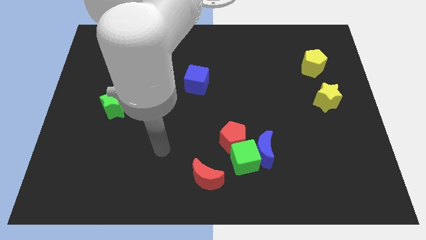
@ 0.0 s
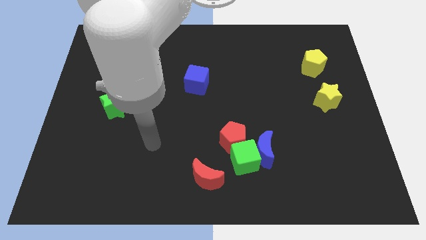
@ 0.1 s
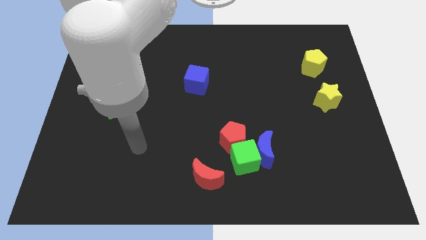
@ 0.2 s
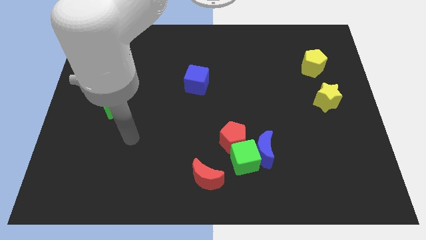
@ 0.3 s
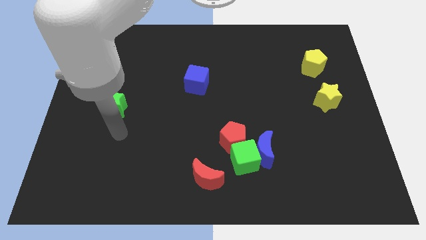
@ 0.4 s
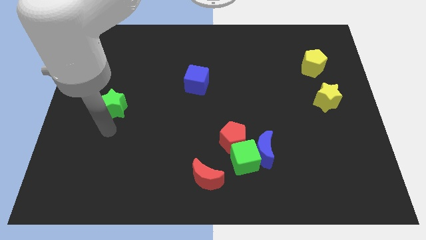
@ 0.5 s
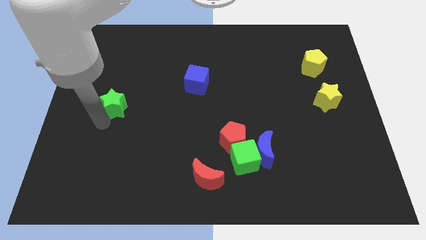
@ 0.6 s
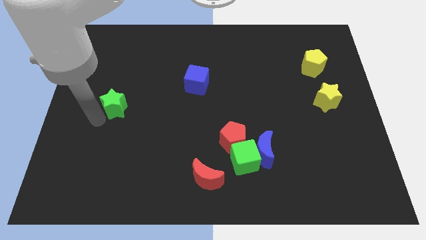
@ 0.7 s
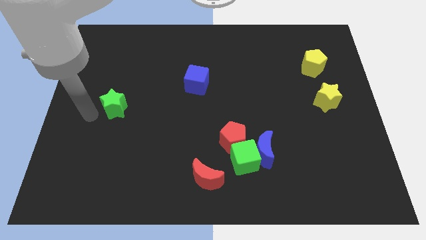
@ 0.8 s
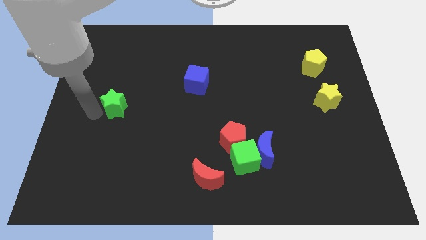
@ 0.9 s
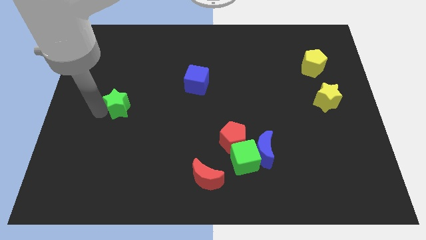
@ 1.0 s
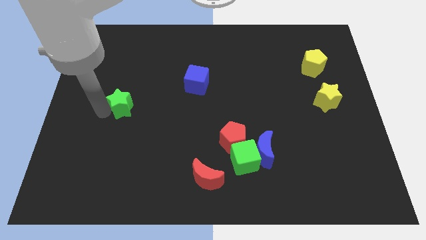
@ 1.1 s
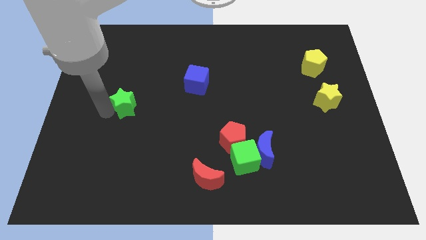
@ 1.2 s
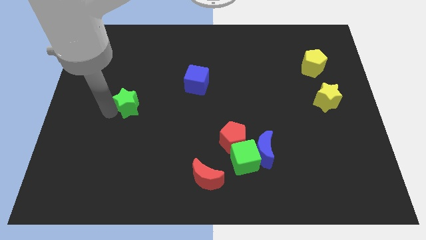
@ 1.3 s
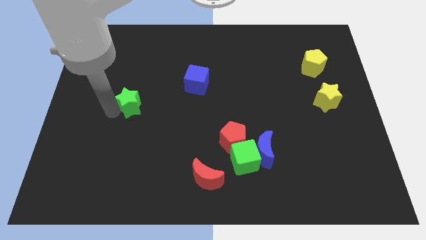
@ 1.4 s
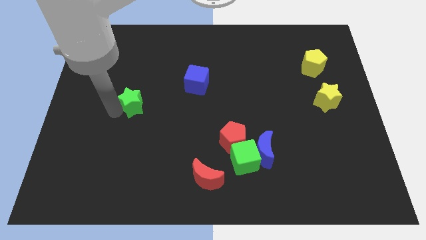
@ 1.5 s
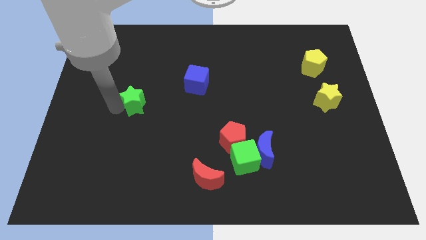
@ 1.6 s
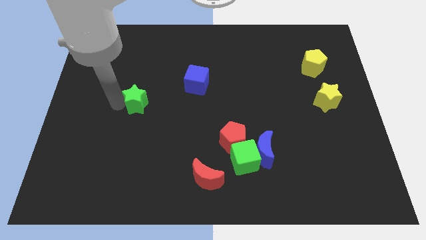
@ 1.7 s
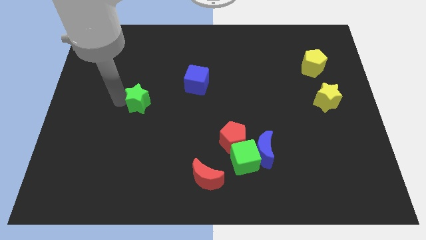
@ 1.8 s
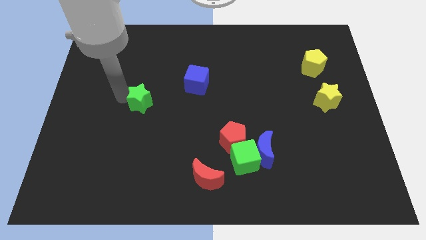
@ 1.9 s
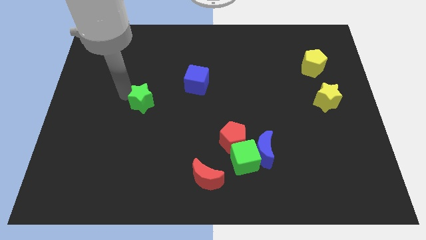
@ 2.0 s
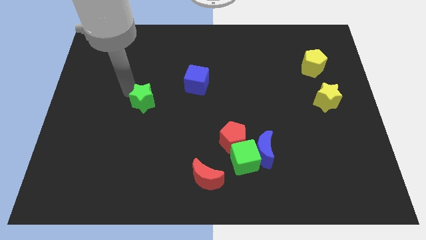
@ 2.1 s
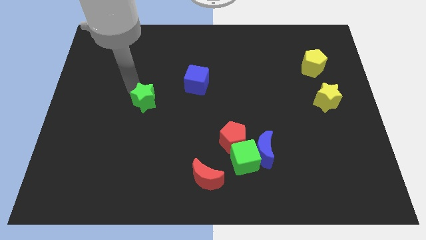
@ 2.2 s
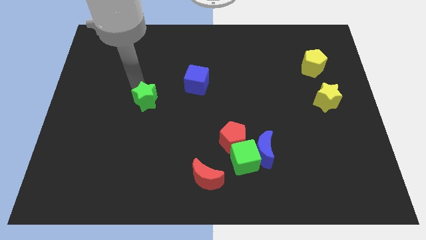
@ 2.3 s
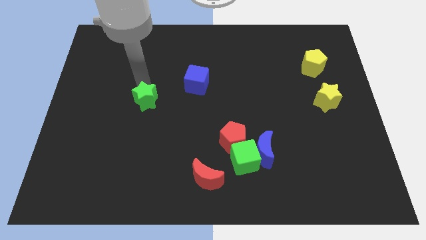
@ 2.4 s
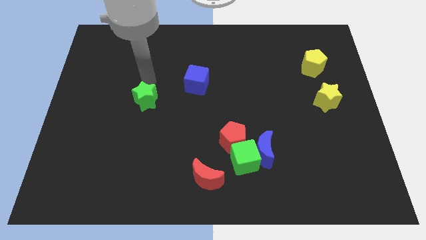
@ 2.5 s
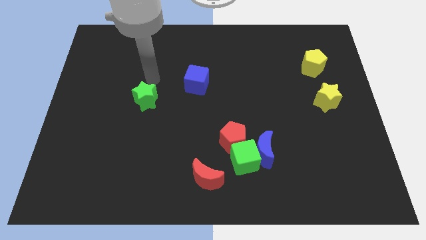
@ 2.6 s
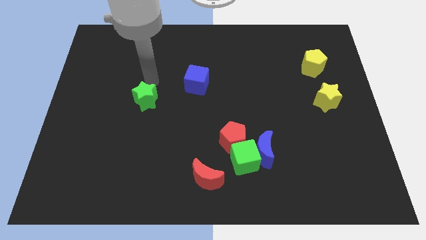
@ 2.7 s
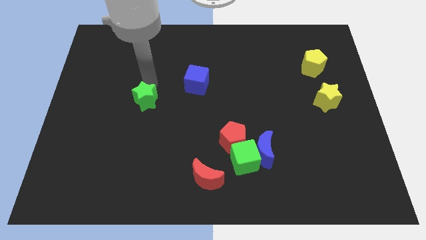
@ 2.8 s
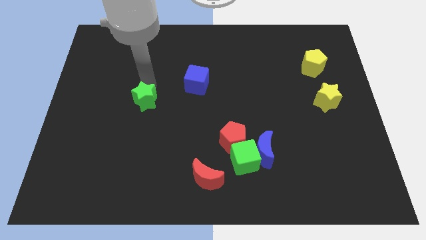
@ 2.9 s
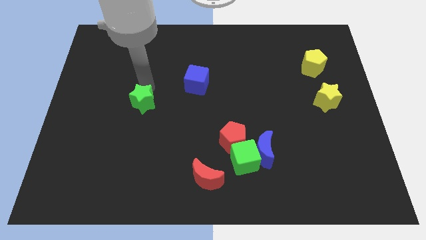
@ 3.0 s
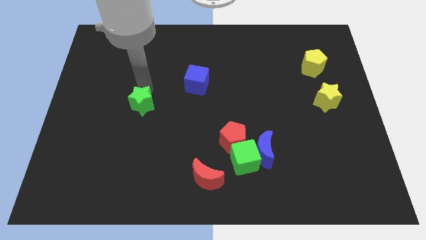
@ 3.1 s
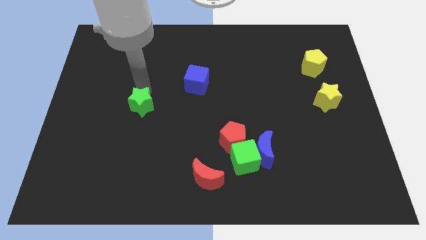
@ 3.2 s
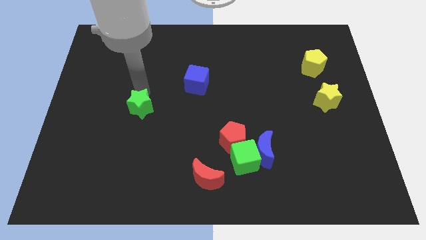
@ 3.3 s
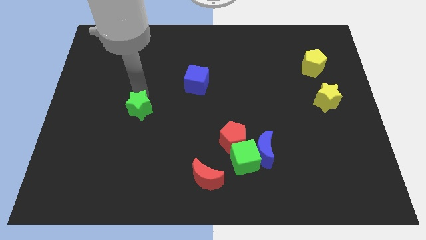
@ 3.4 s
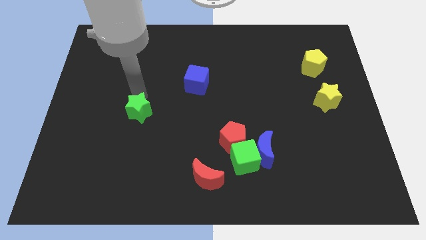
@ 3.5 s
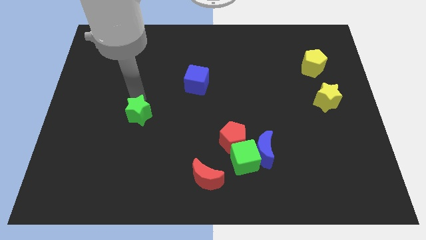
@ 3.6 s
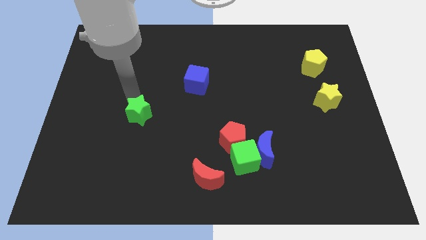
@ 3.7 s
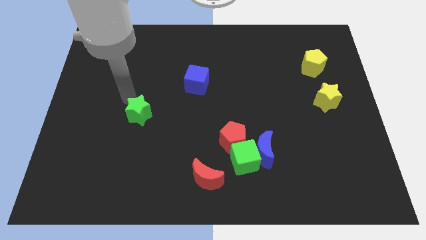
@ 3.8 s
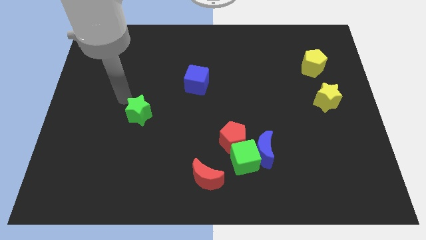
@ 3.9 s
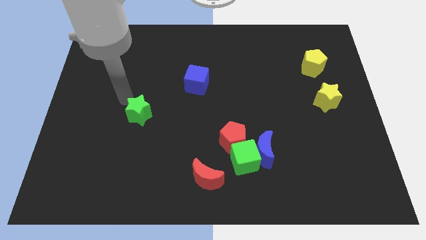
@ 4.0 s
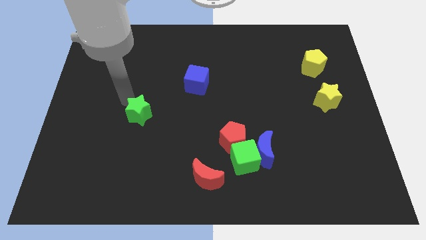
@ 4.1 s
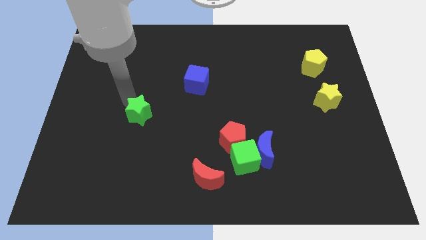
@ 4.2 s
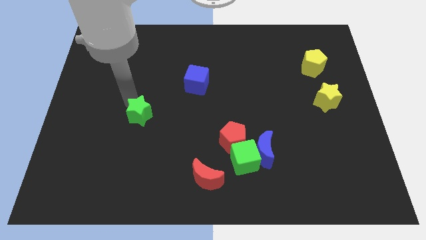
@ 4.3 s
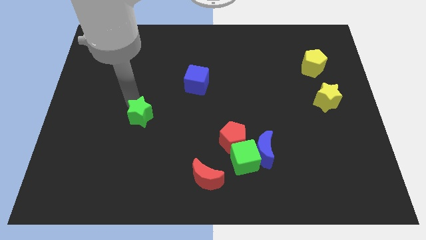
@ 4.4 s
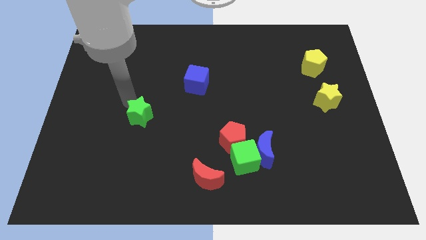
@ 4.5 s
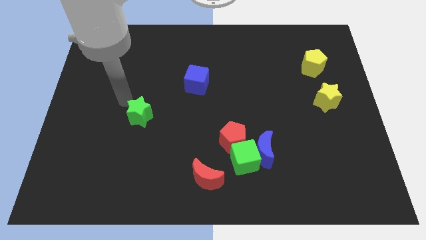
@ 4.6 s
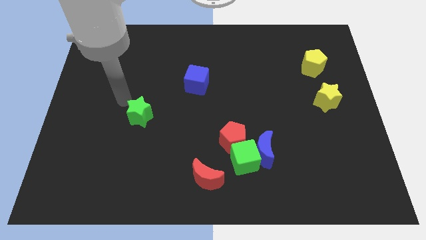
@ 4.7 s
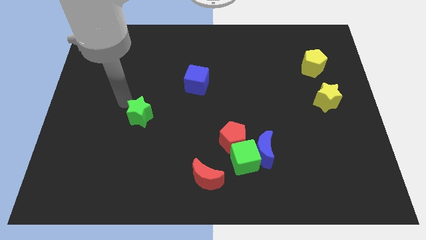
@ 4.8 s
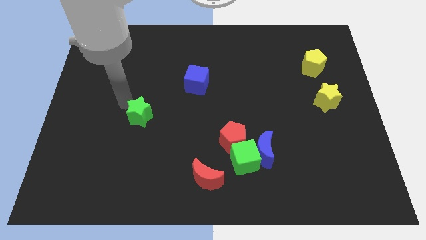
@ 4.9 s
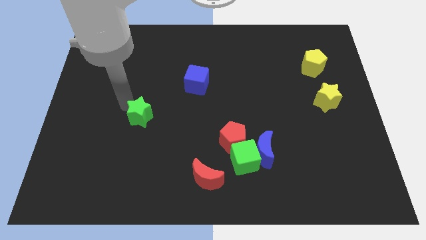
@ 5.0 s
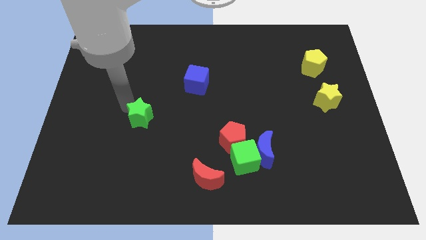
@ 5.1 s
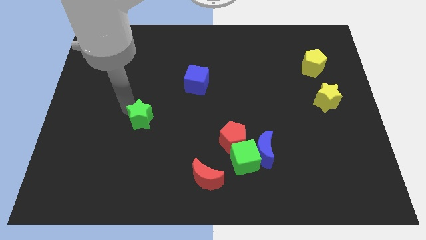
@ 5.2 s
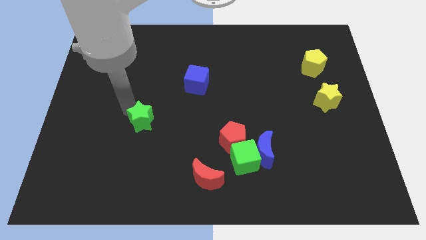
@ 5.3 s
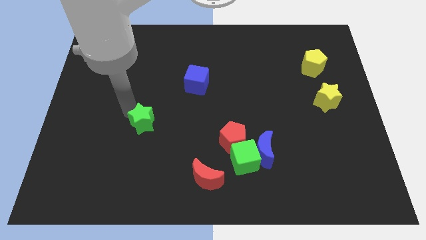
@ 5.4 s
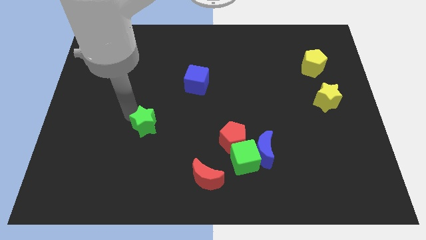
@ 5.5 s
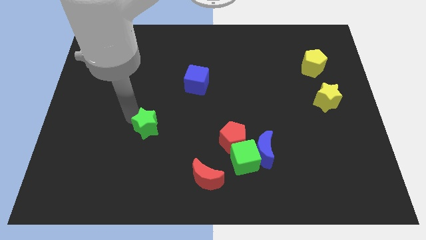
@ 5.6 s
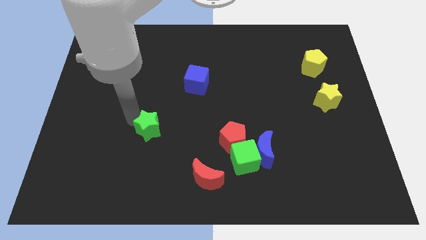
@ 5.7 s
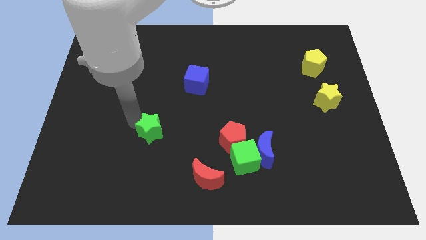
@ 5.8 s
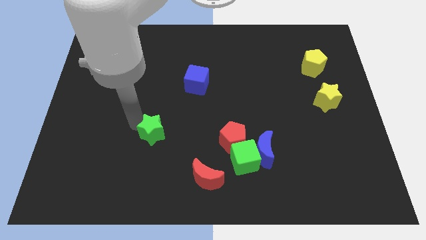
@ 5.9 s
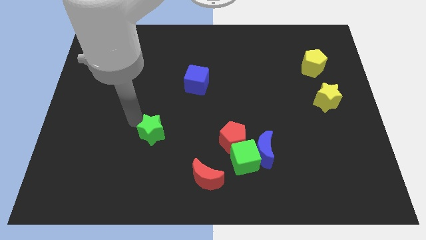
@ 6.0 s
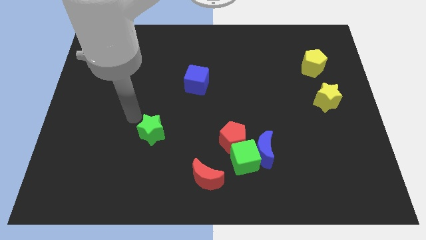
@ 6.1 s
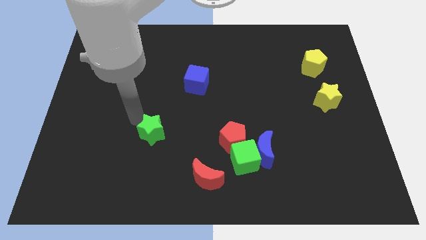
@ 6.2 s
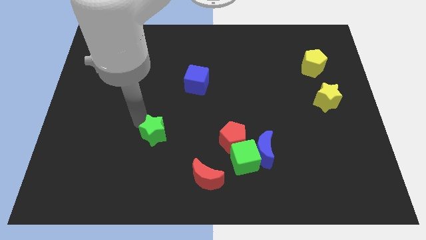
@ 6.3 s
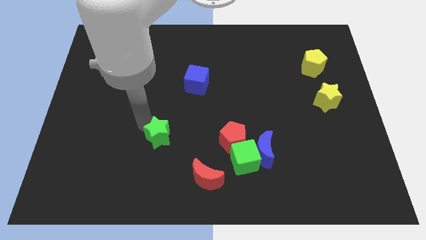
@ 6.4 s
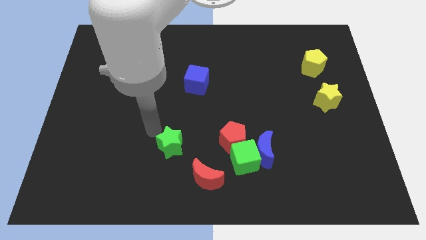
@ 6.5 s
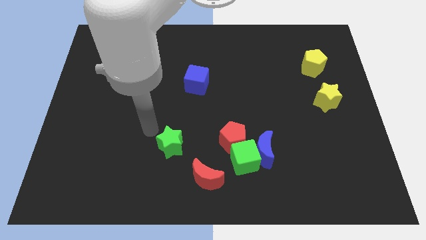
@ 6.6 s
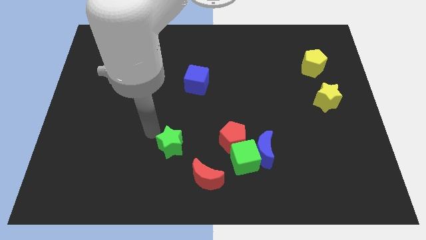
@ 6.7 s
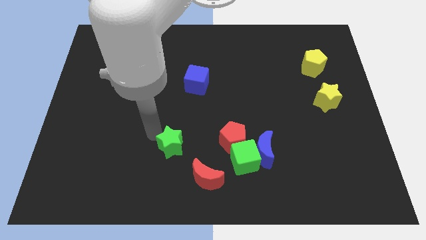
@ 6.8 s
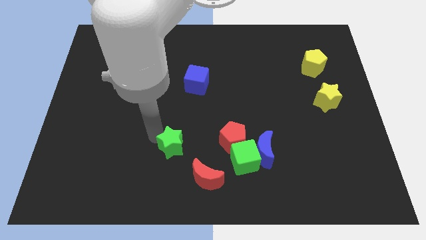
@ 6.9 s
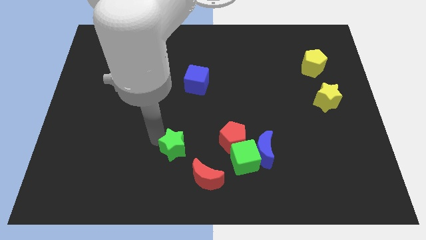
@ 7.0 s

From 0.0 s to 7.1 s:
move the green star to the left of the green cube

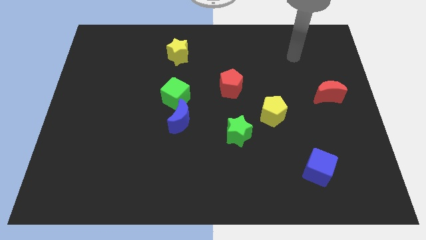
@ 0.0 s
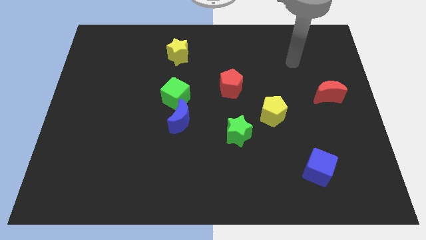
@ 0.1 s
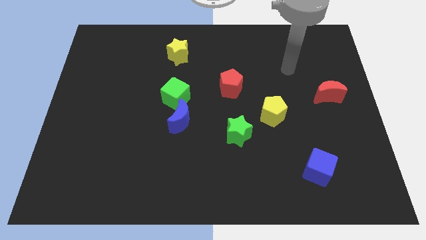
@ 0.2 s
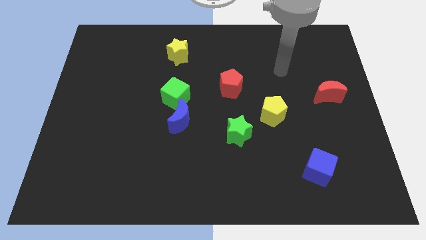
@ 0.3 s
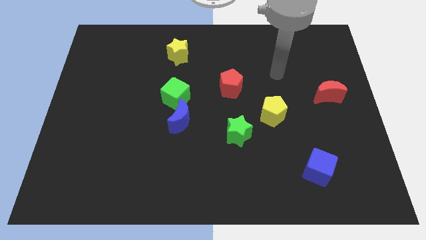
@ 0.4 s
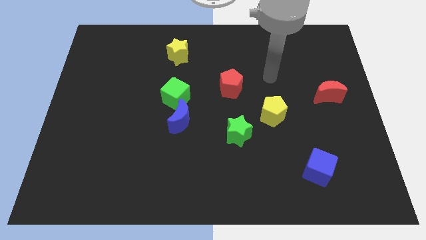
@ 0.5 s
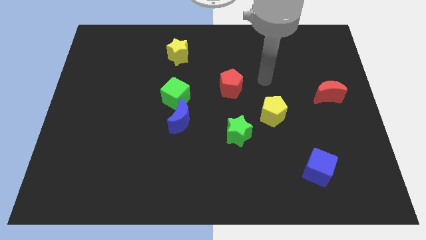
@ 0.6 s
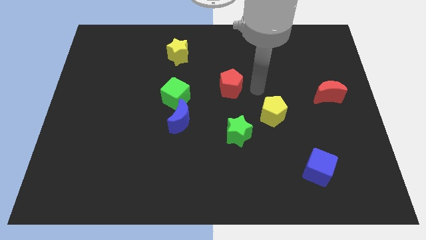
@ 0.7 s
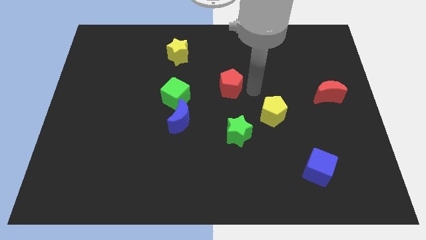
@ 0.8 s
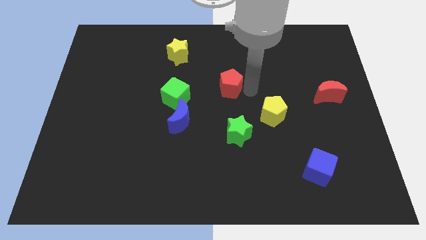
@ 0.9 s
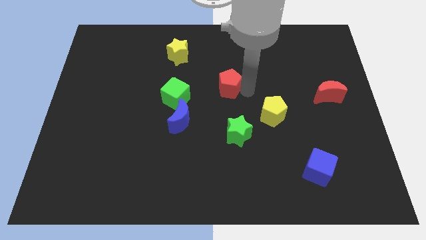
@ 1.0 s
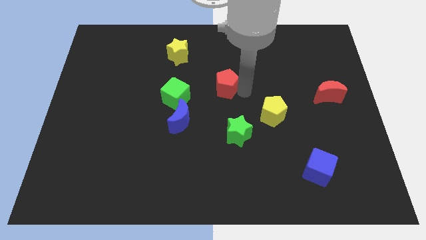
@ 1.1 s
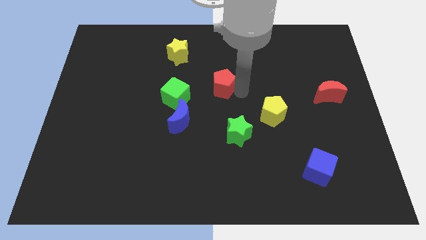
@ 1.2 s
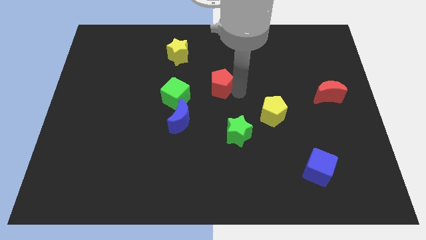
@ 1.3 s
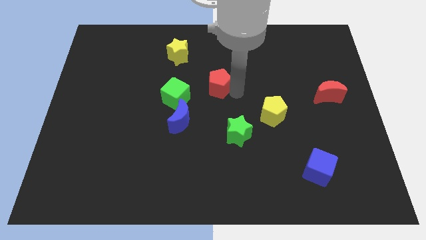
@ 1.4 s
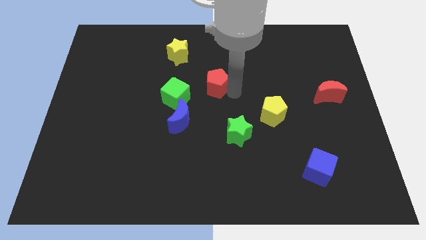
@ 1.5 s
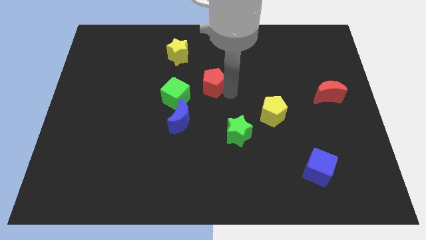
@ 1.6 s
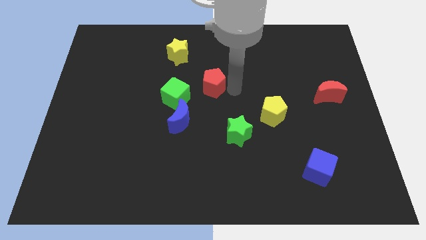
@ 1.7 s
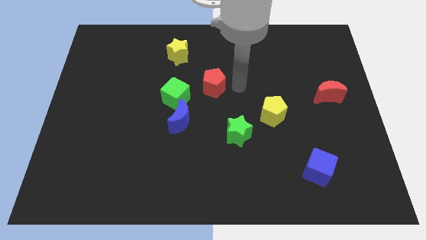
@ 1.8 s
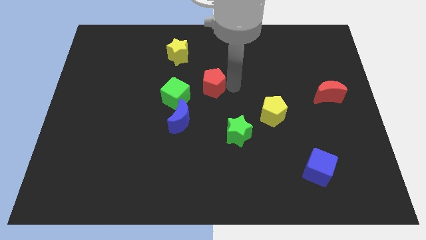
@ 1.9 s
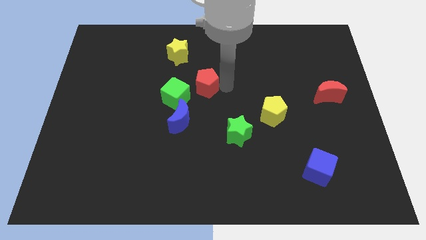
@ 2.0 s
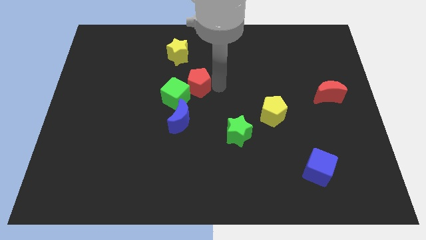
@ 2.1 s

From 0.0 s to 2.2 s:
put the red pentagon above the blue moon
